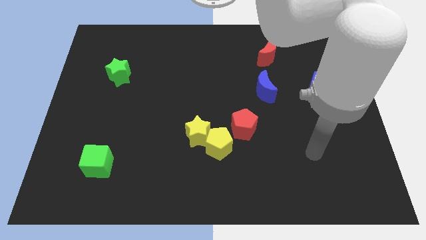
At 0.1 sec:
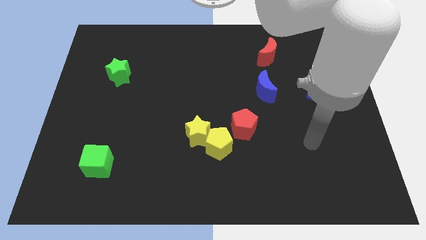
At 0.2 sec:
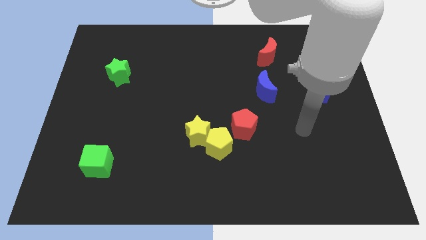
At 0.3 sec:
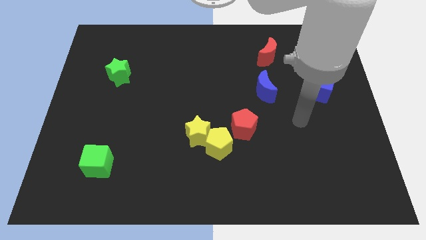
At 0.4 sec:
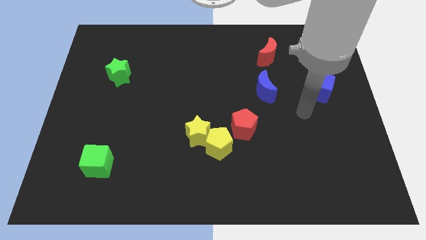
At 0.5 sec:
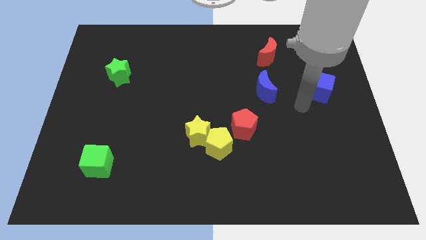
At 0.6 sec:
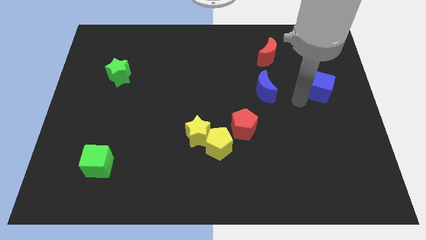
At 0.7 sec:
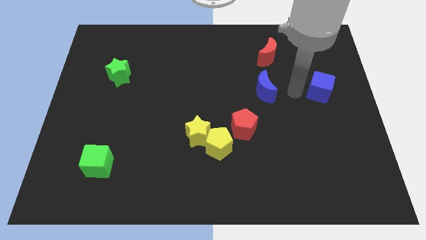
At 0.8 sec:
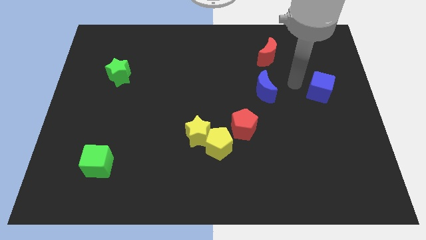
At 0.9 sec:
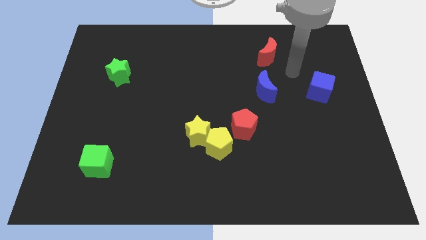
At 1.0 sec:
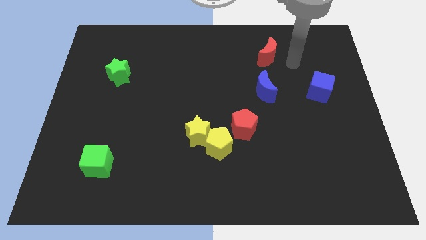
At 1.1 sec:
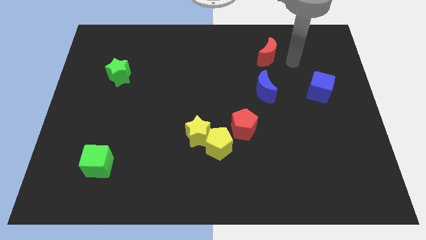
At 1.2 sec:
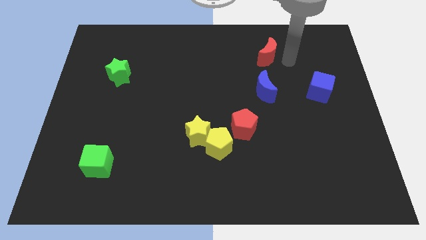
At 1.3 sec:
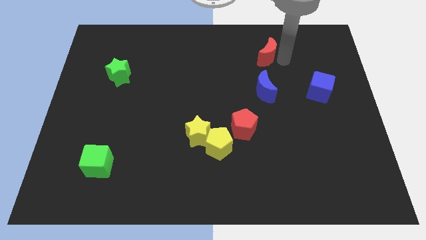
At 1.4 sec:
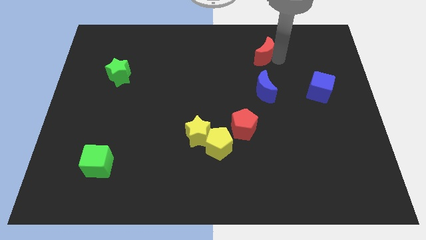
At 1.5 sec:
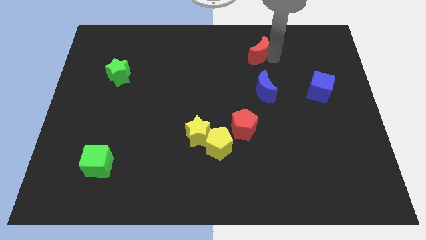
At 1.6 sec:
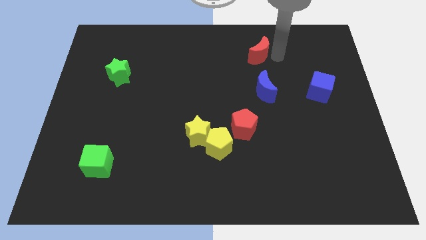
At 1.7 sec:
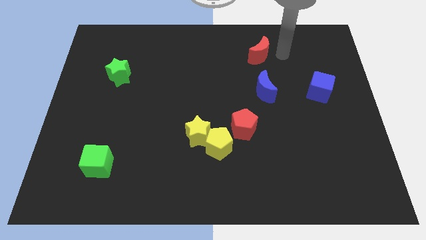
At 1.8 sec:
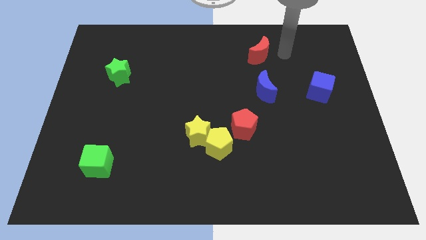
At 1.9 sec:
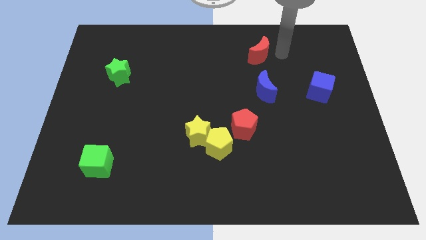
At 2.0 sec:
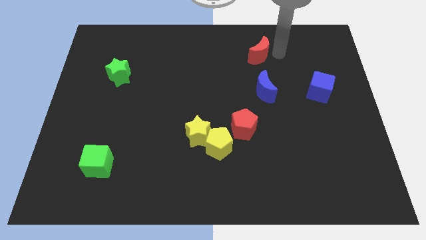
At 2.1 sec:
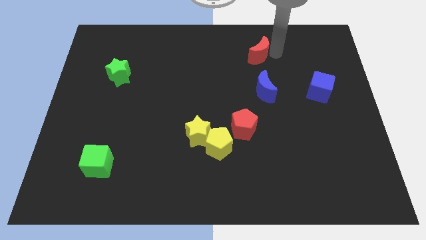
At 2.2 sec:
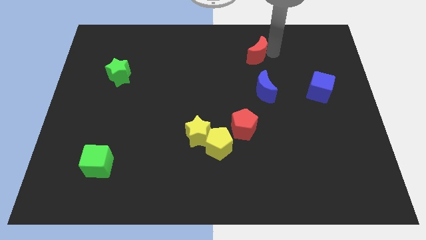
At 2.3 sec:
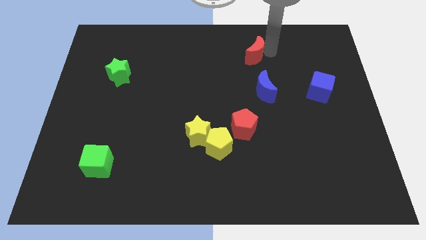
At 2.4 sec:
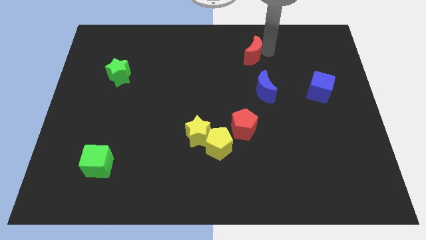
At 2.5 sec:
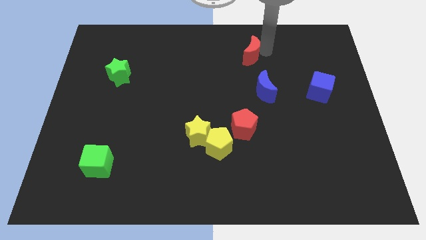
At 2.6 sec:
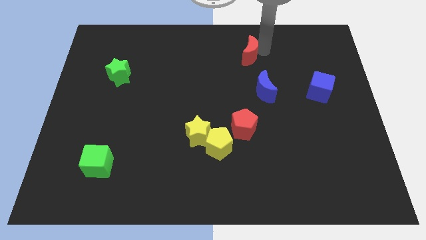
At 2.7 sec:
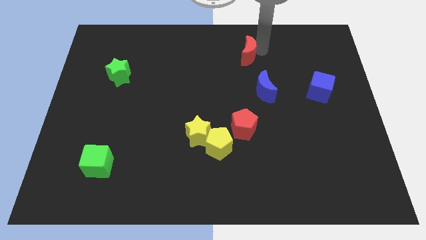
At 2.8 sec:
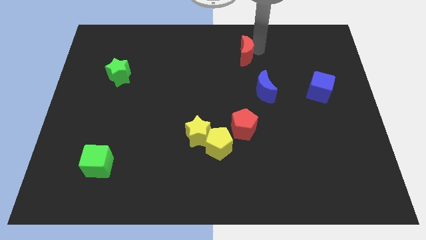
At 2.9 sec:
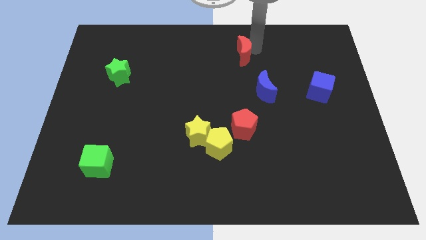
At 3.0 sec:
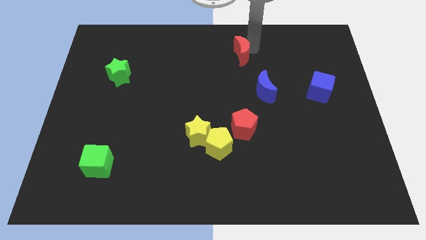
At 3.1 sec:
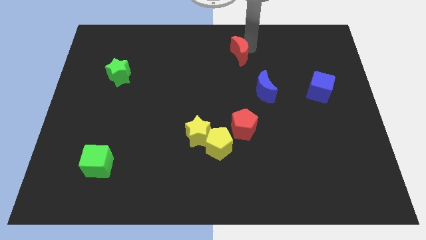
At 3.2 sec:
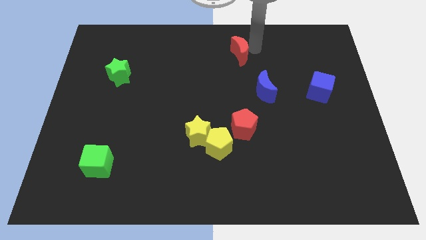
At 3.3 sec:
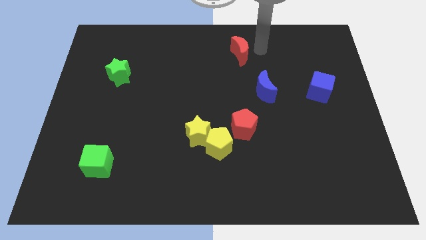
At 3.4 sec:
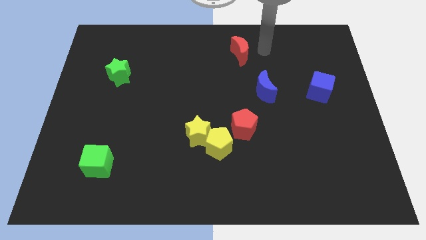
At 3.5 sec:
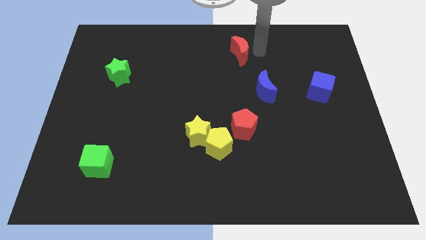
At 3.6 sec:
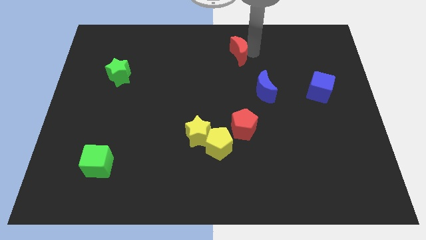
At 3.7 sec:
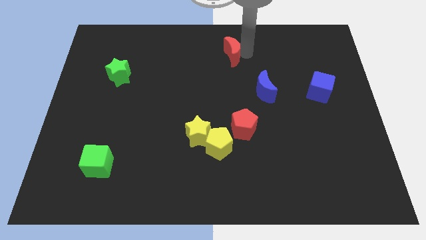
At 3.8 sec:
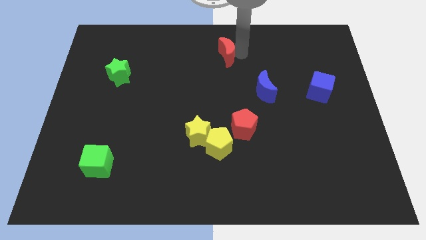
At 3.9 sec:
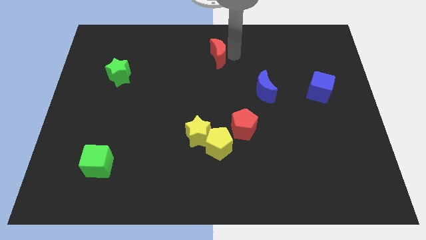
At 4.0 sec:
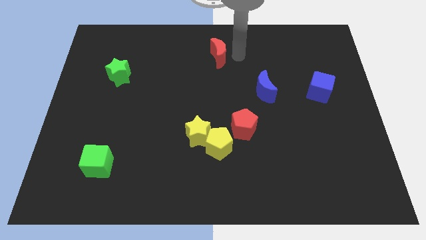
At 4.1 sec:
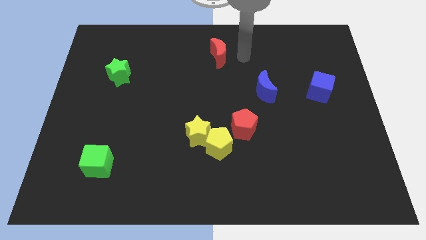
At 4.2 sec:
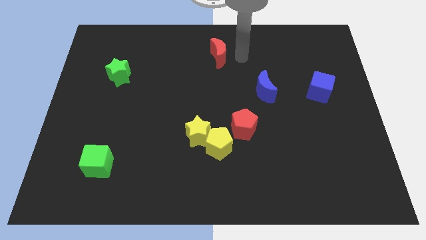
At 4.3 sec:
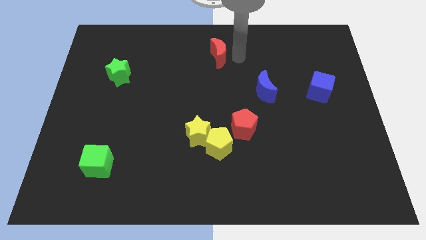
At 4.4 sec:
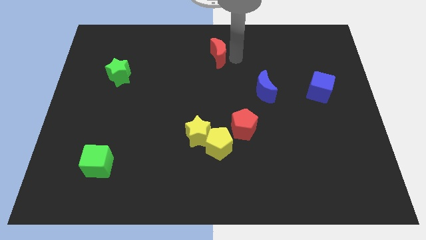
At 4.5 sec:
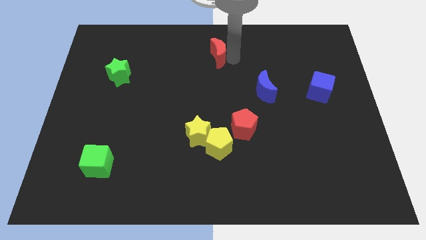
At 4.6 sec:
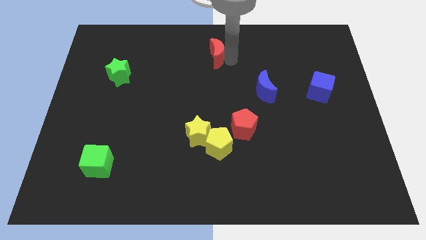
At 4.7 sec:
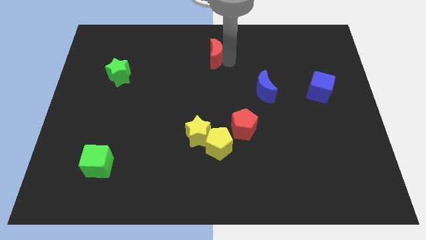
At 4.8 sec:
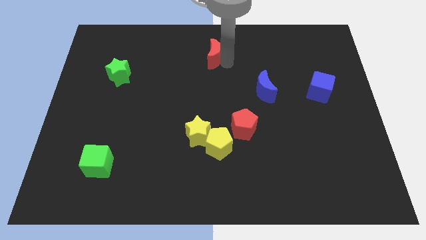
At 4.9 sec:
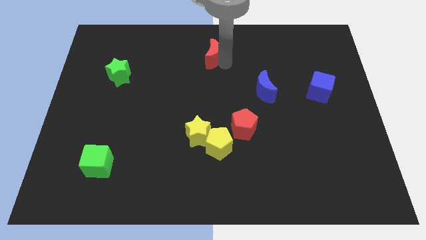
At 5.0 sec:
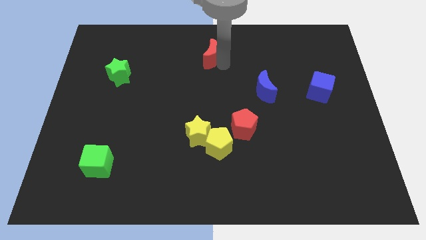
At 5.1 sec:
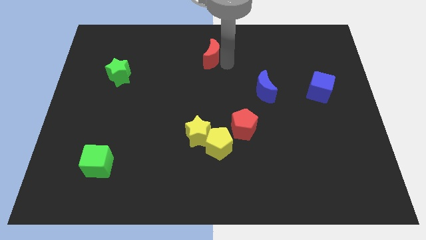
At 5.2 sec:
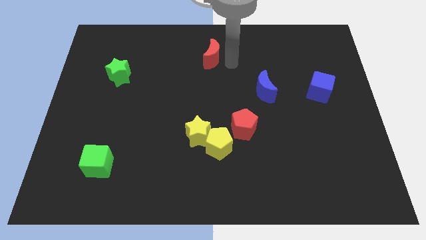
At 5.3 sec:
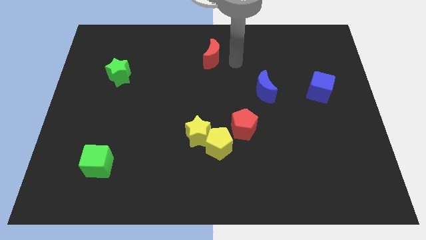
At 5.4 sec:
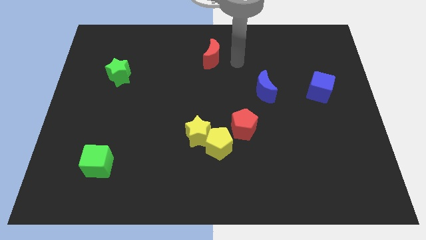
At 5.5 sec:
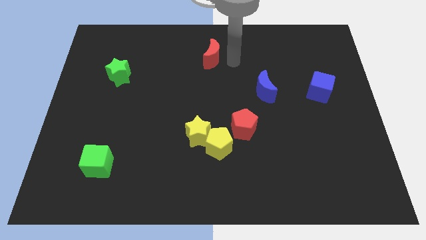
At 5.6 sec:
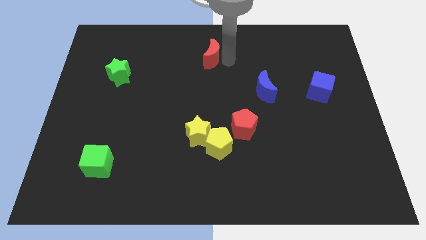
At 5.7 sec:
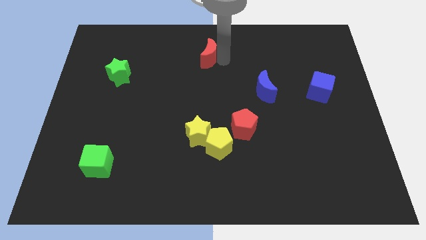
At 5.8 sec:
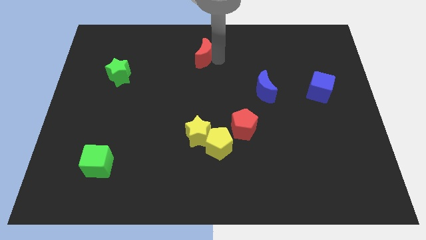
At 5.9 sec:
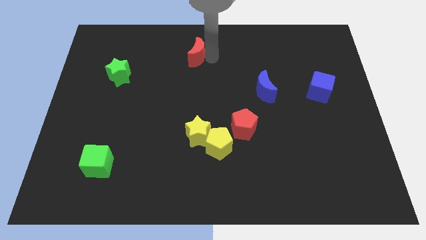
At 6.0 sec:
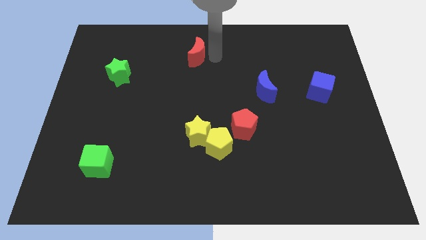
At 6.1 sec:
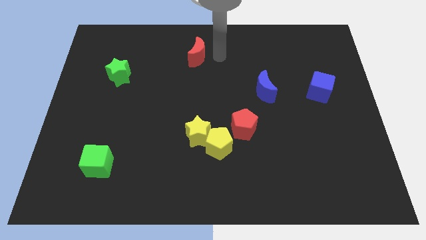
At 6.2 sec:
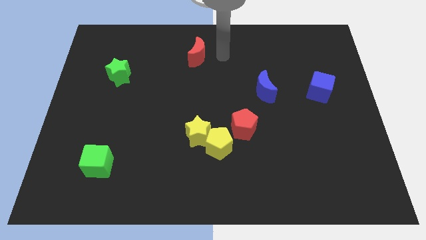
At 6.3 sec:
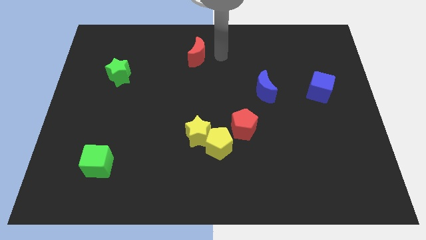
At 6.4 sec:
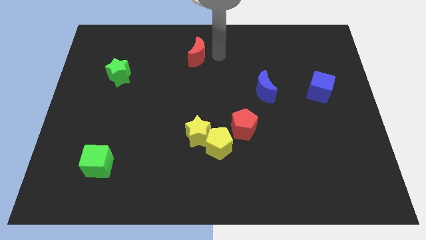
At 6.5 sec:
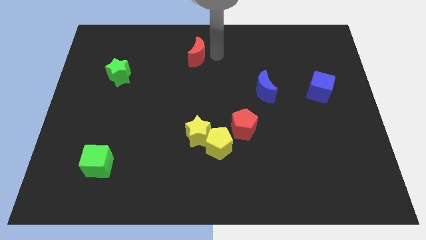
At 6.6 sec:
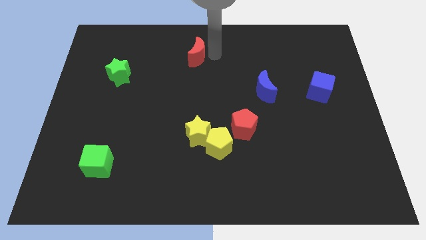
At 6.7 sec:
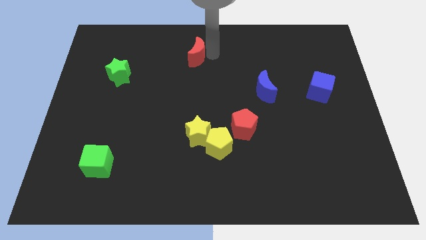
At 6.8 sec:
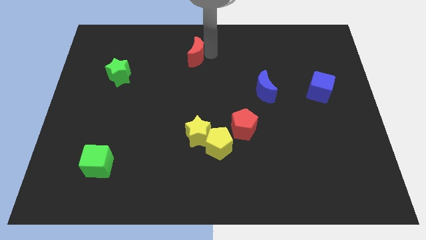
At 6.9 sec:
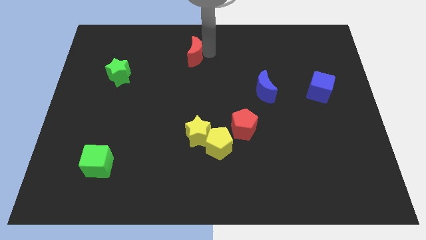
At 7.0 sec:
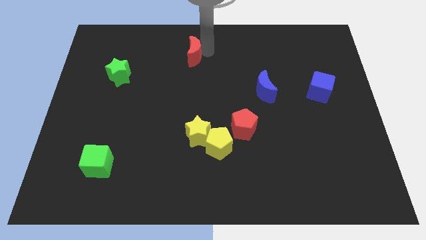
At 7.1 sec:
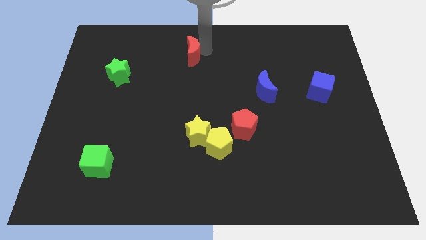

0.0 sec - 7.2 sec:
move the red moon left

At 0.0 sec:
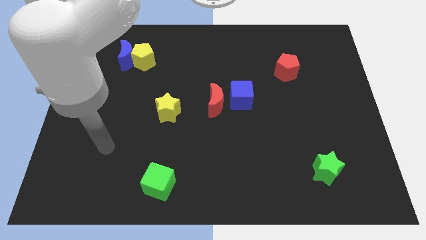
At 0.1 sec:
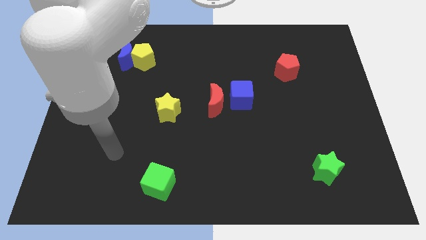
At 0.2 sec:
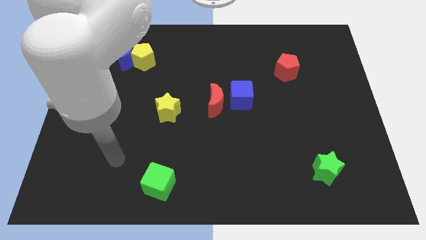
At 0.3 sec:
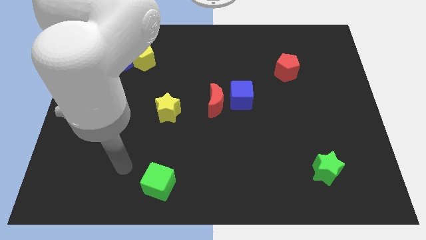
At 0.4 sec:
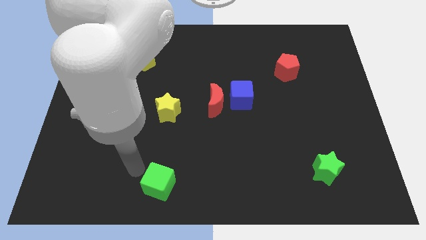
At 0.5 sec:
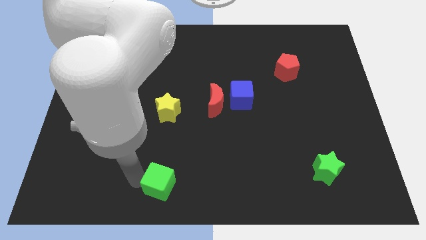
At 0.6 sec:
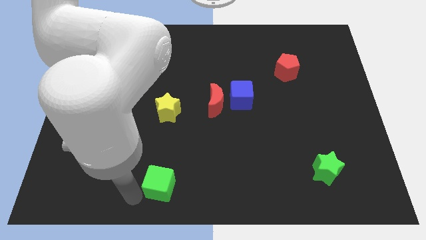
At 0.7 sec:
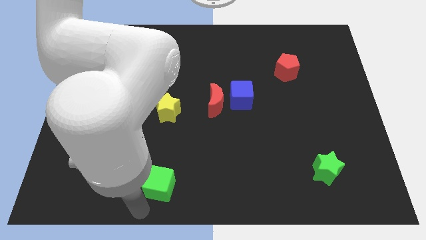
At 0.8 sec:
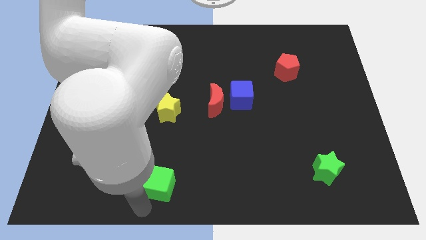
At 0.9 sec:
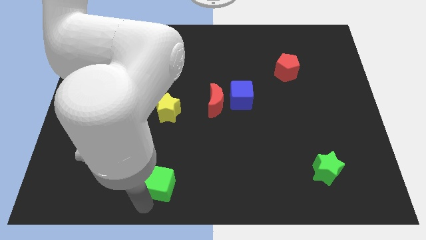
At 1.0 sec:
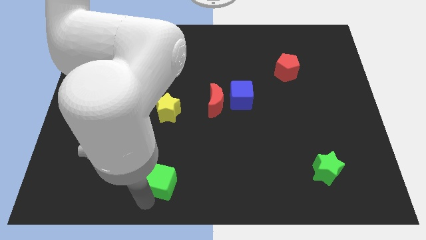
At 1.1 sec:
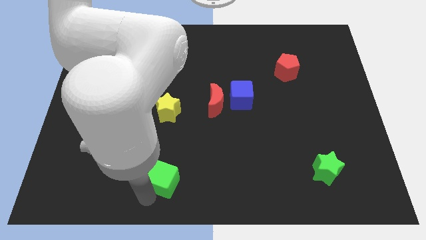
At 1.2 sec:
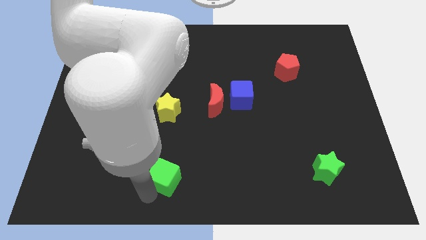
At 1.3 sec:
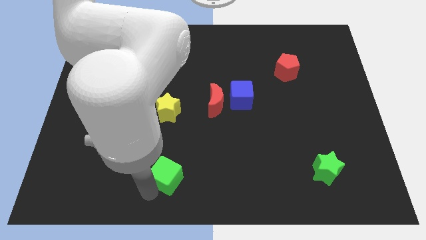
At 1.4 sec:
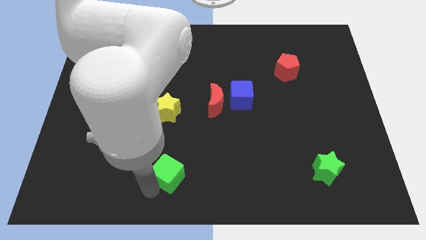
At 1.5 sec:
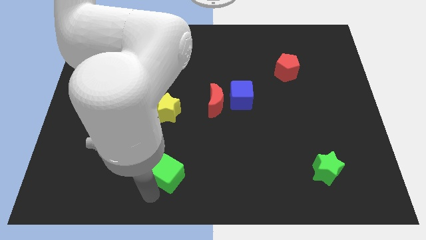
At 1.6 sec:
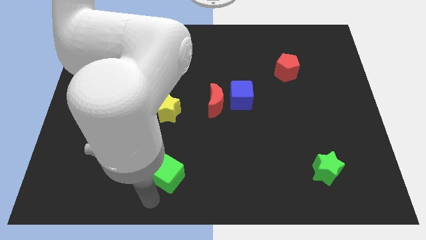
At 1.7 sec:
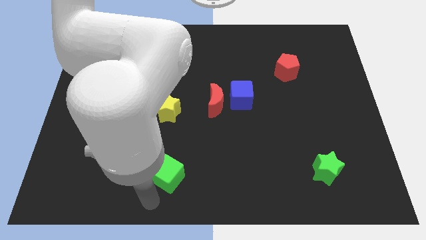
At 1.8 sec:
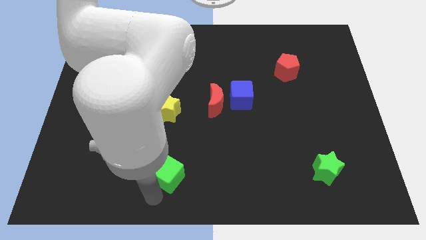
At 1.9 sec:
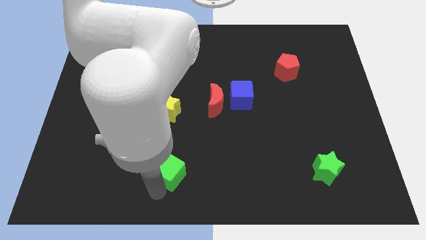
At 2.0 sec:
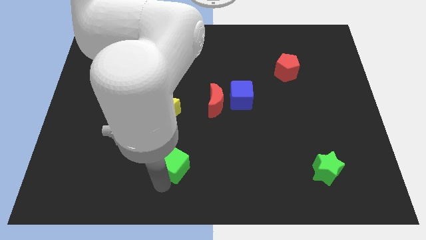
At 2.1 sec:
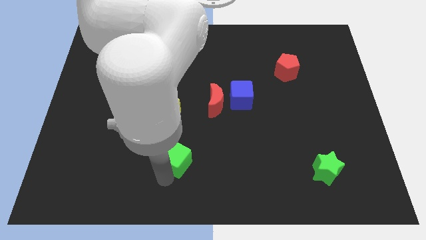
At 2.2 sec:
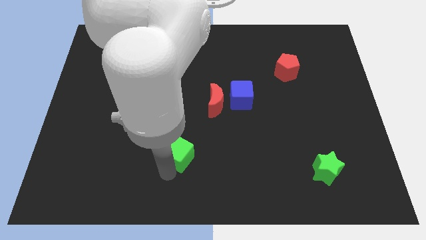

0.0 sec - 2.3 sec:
slightly push the green cube diagonally up and to the right
